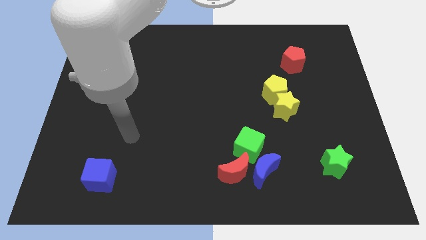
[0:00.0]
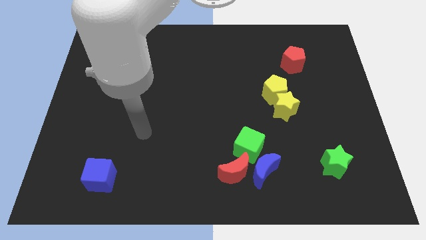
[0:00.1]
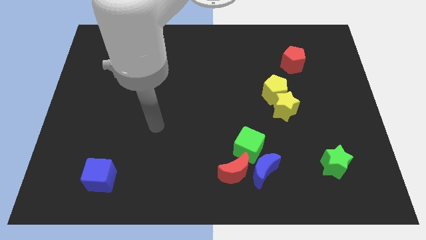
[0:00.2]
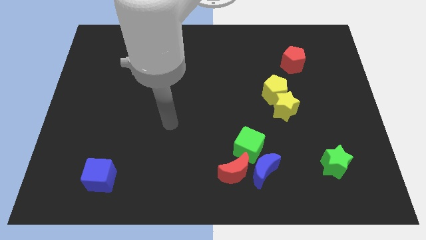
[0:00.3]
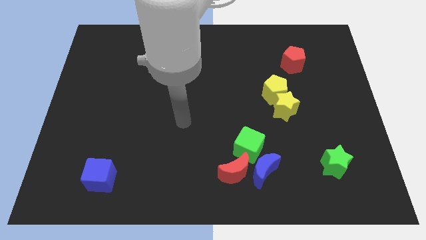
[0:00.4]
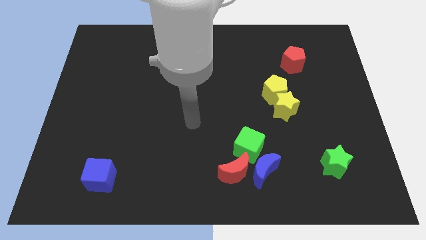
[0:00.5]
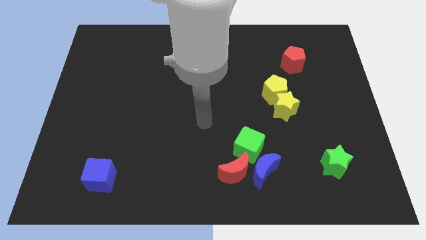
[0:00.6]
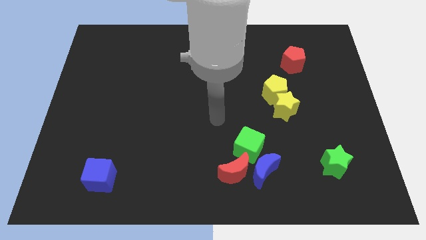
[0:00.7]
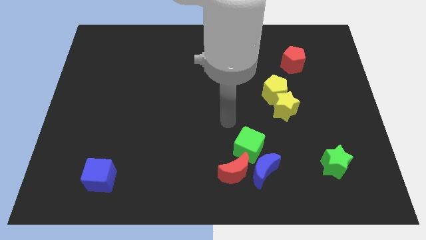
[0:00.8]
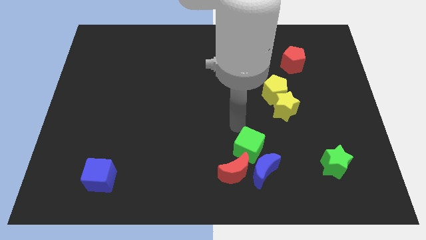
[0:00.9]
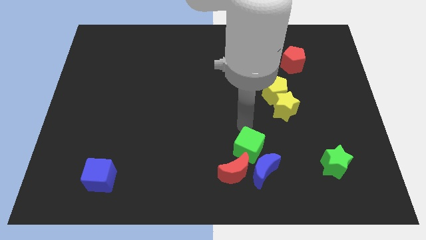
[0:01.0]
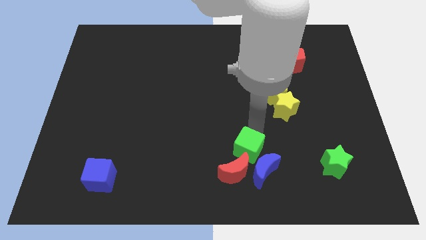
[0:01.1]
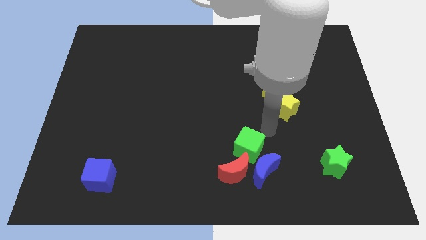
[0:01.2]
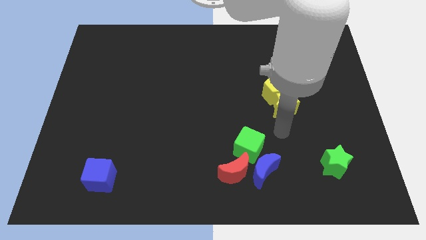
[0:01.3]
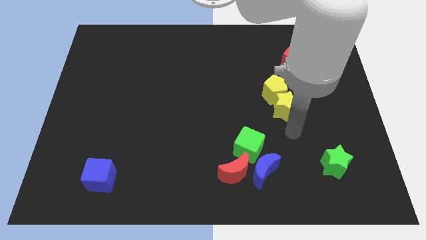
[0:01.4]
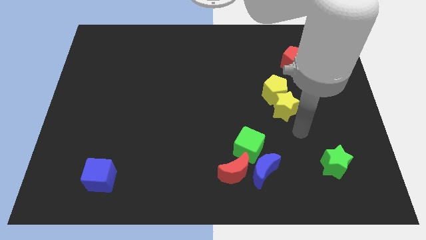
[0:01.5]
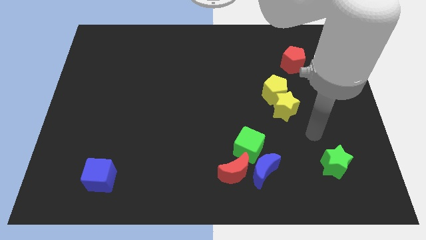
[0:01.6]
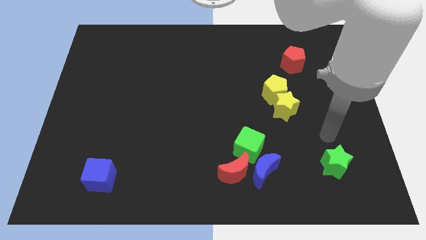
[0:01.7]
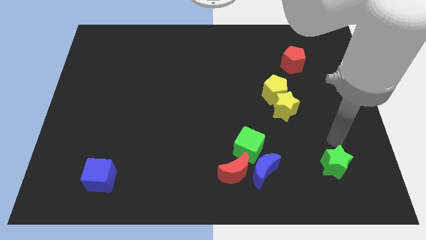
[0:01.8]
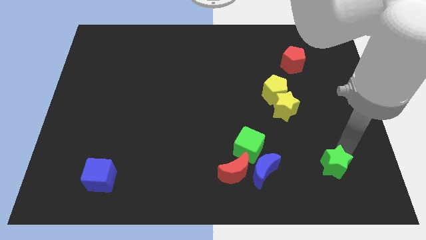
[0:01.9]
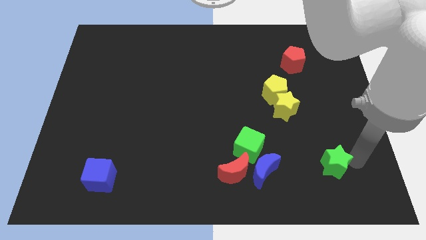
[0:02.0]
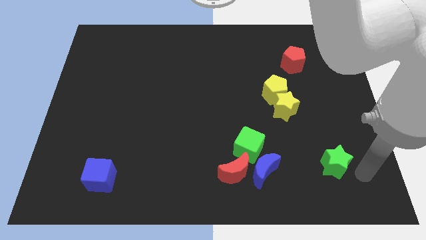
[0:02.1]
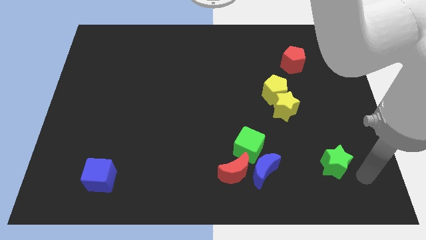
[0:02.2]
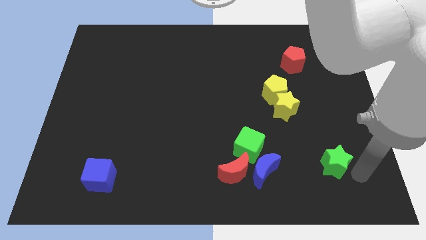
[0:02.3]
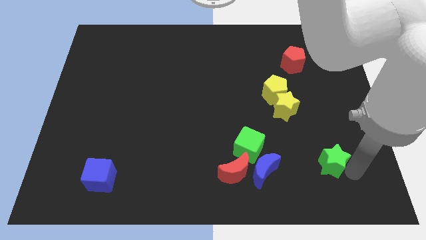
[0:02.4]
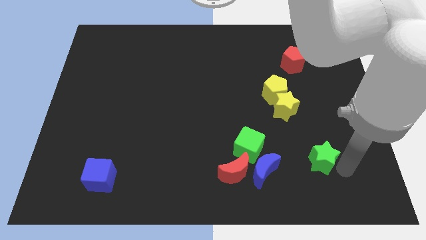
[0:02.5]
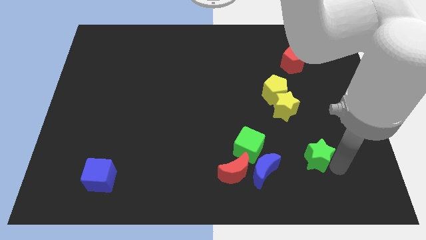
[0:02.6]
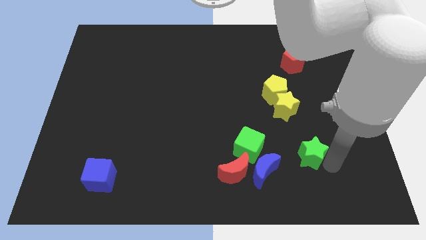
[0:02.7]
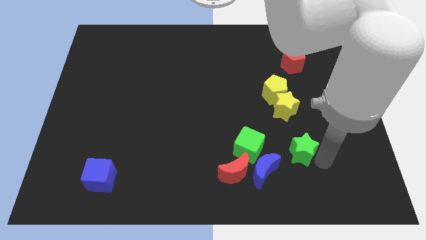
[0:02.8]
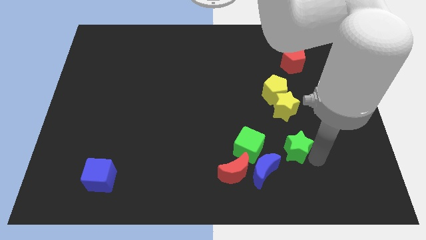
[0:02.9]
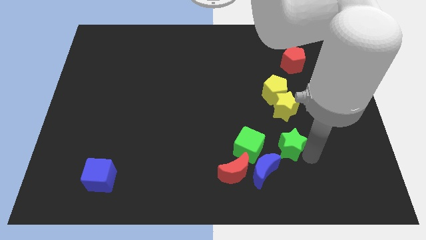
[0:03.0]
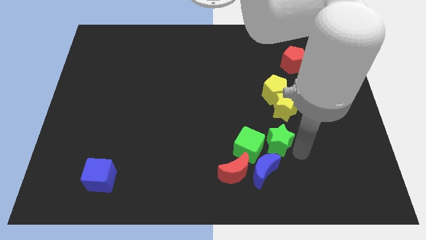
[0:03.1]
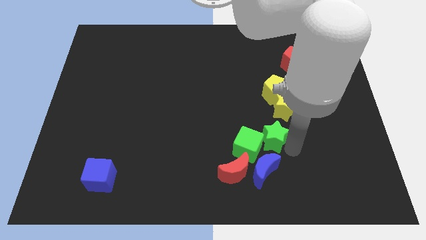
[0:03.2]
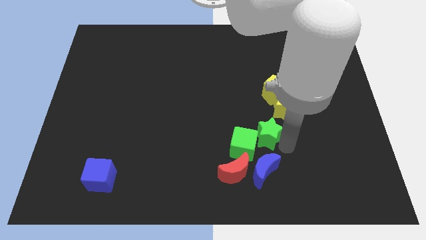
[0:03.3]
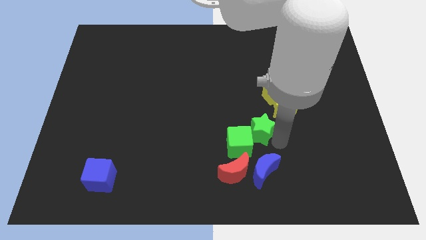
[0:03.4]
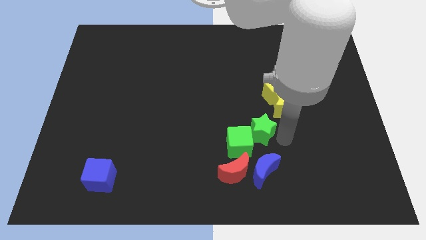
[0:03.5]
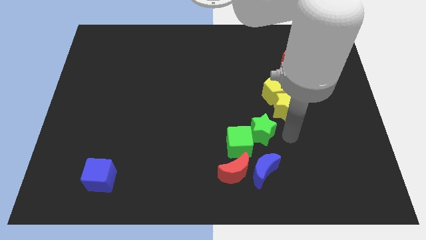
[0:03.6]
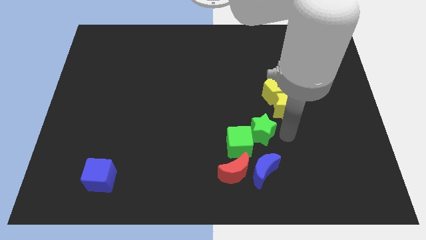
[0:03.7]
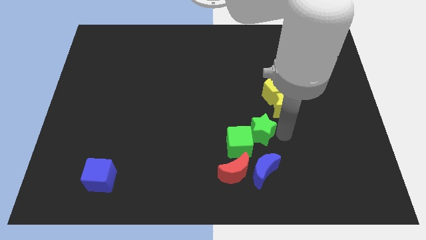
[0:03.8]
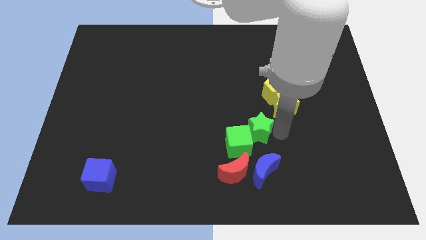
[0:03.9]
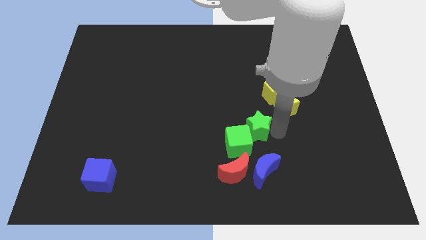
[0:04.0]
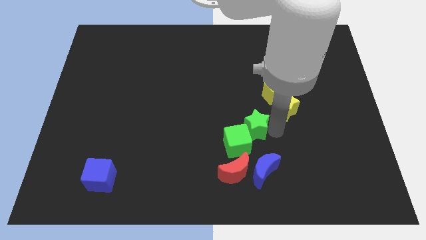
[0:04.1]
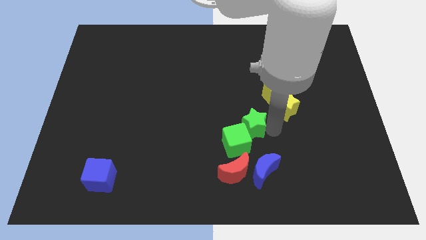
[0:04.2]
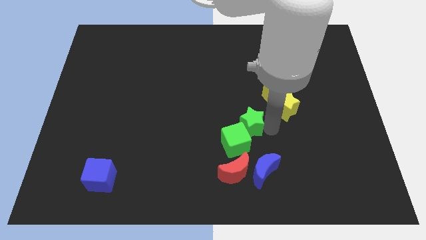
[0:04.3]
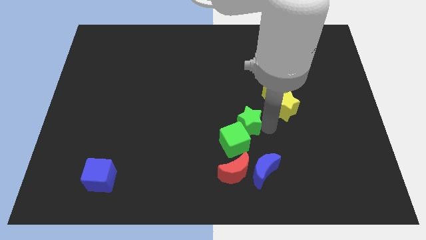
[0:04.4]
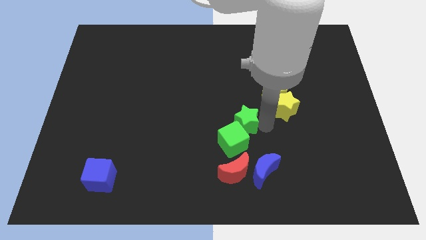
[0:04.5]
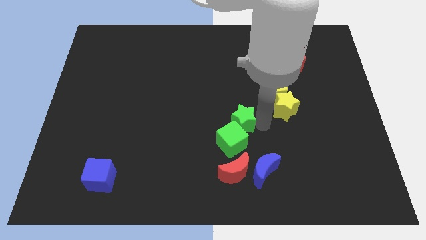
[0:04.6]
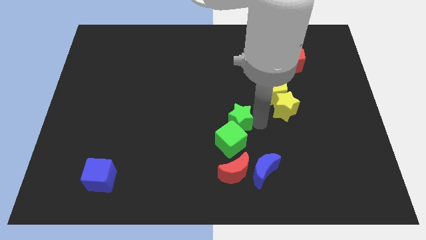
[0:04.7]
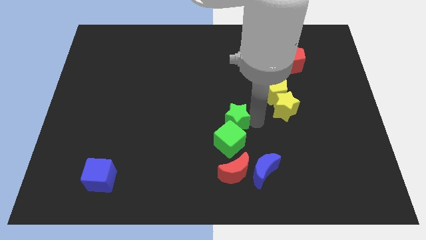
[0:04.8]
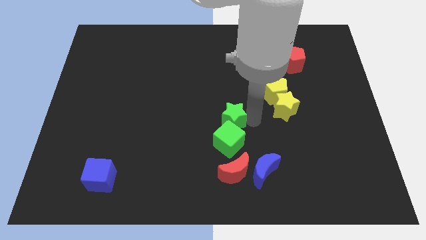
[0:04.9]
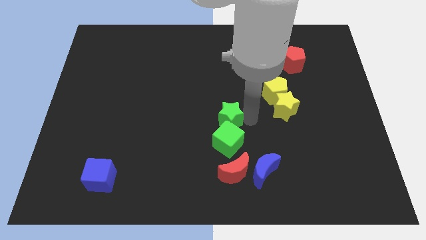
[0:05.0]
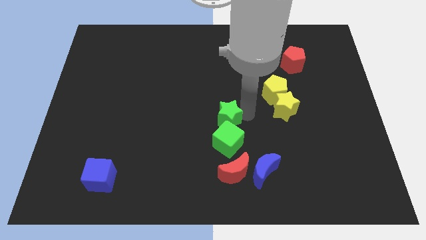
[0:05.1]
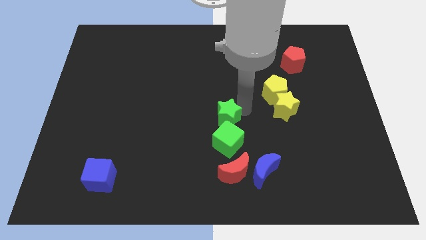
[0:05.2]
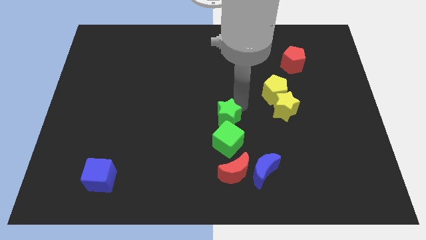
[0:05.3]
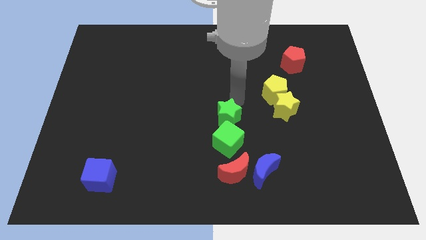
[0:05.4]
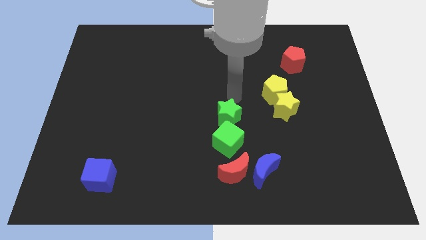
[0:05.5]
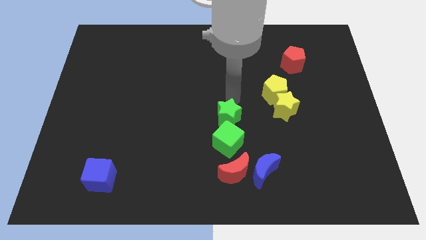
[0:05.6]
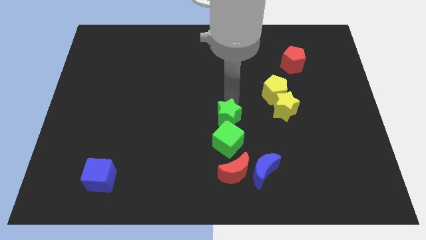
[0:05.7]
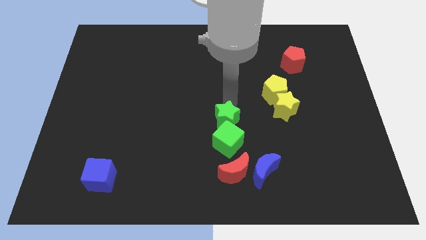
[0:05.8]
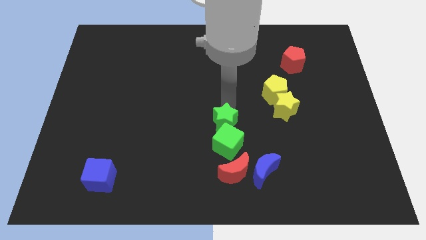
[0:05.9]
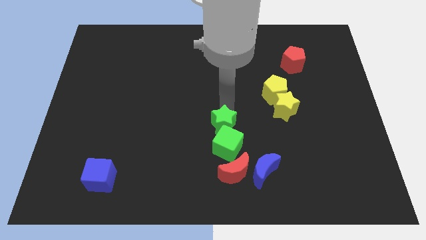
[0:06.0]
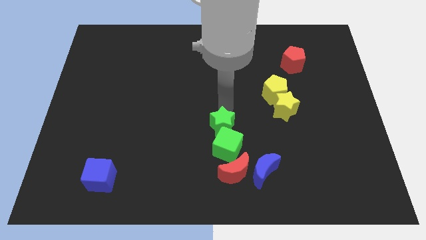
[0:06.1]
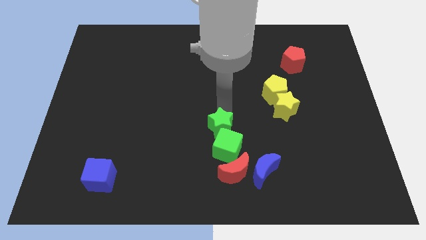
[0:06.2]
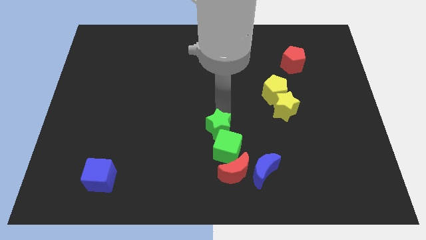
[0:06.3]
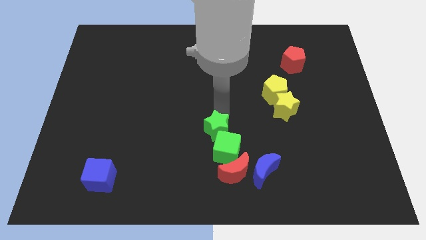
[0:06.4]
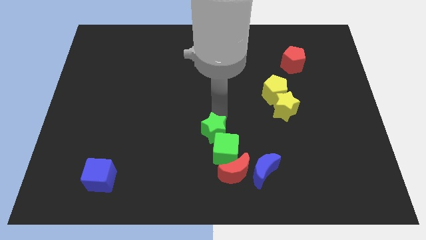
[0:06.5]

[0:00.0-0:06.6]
push the green star diagonally up and to the left of the red moon

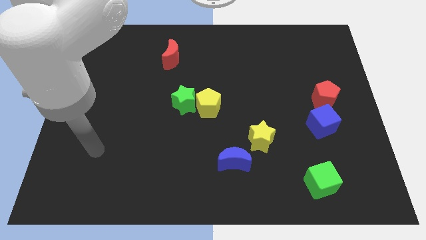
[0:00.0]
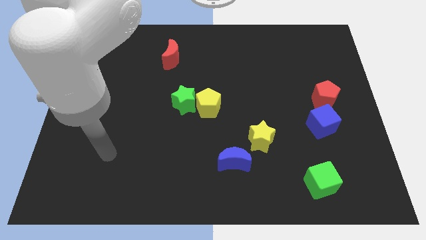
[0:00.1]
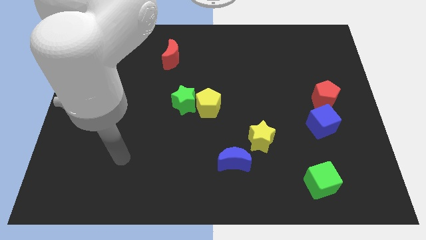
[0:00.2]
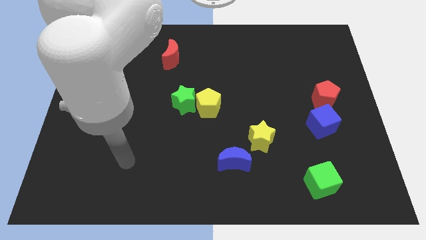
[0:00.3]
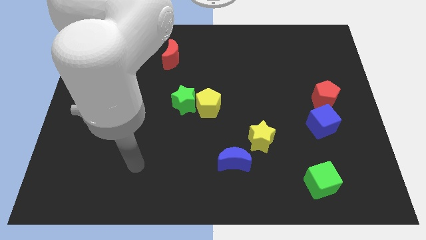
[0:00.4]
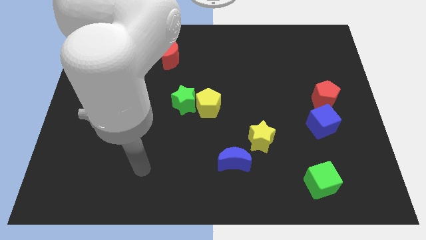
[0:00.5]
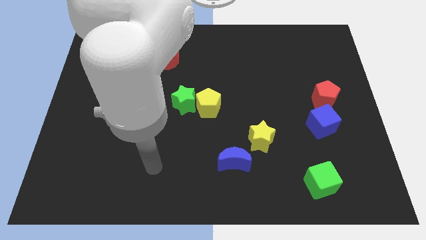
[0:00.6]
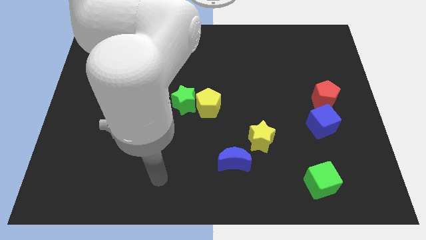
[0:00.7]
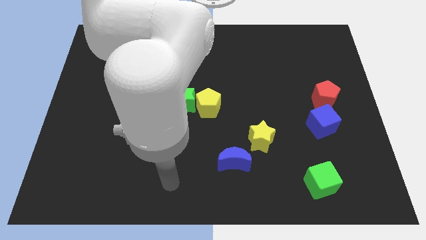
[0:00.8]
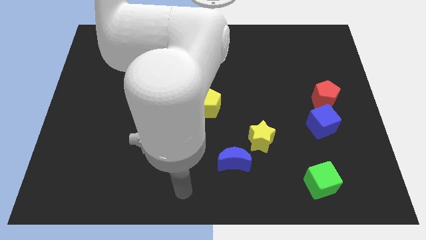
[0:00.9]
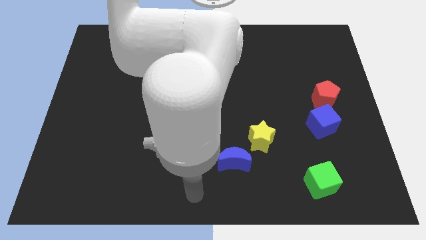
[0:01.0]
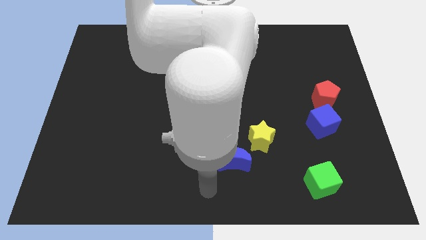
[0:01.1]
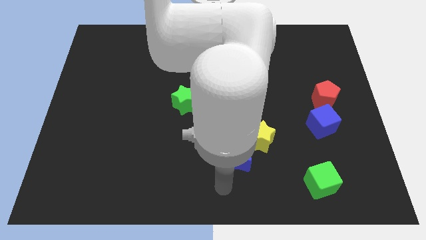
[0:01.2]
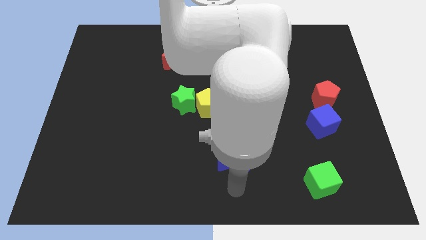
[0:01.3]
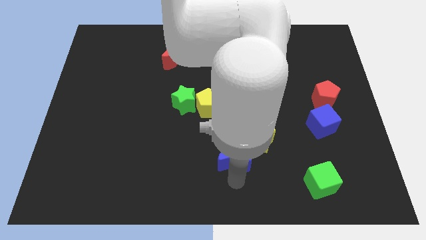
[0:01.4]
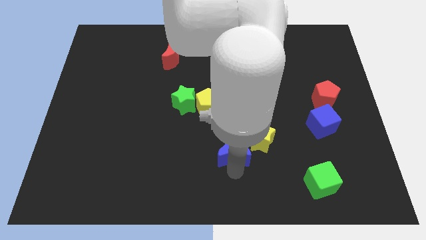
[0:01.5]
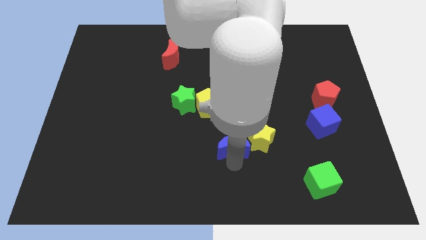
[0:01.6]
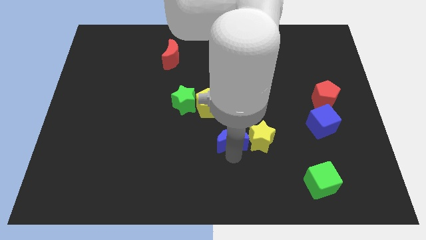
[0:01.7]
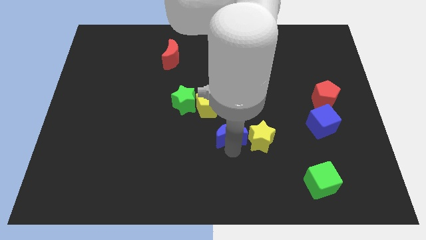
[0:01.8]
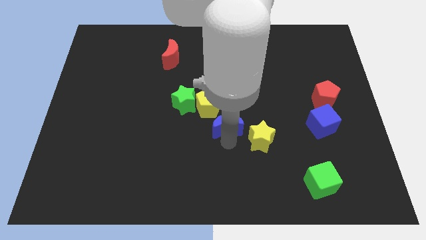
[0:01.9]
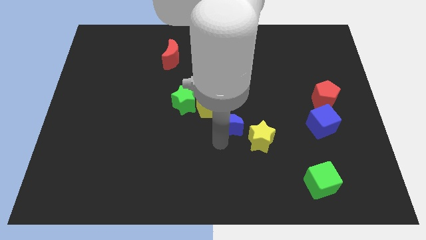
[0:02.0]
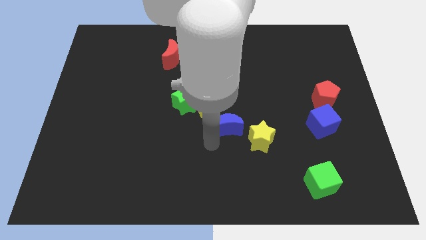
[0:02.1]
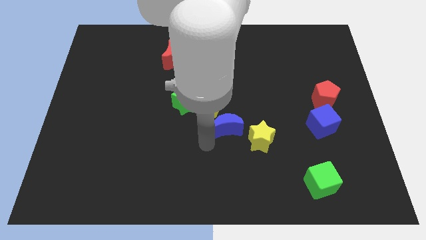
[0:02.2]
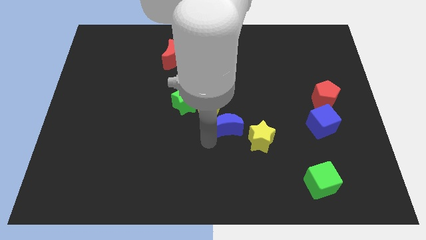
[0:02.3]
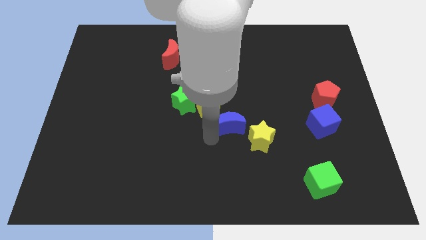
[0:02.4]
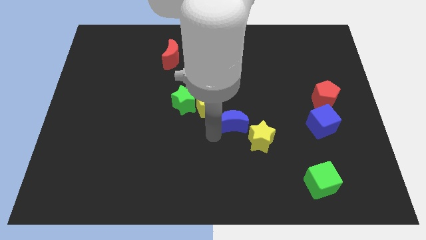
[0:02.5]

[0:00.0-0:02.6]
slide the blue moon just right of the yellow pentagon
